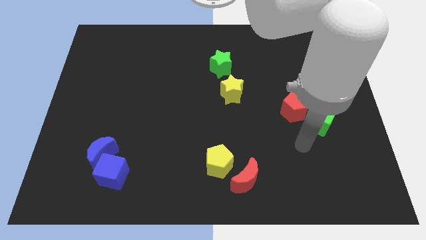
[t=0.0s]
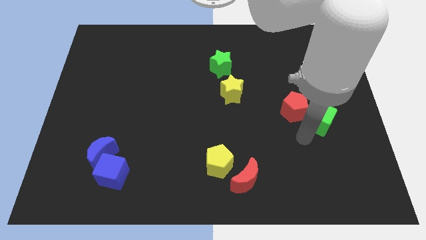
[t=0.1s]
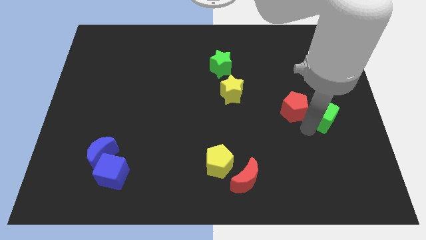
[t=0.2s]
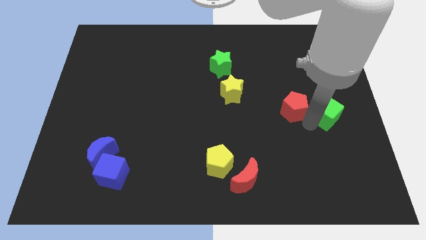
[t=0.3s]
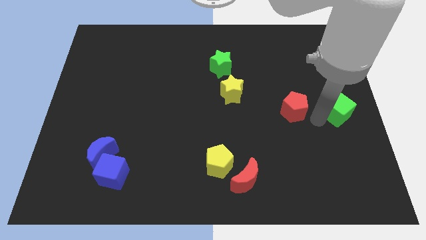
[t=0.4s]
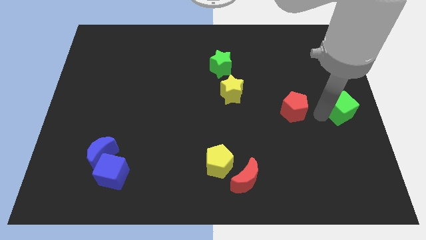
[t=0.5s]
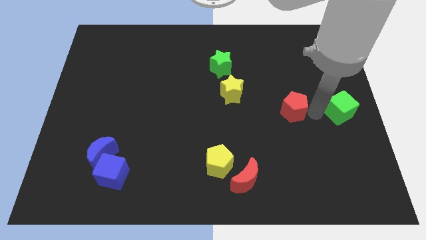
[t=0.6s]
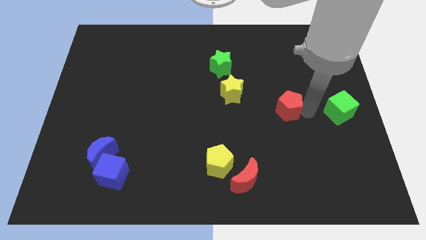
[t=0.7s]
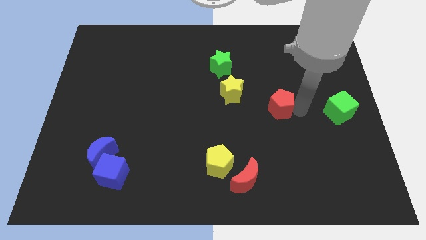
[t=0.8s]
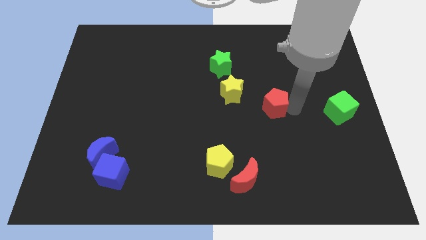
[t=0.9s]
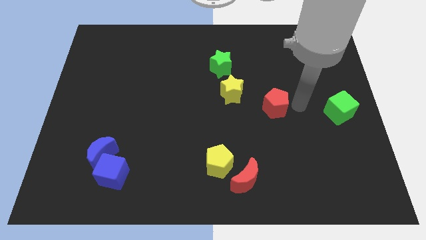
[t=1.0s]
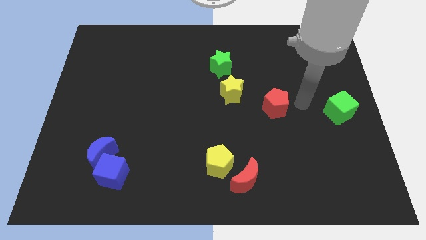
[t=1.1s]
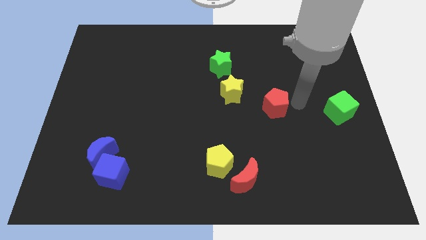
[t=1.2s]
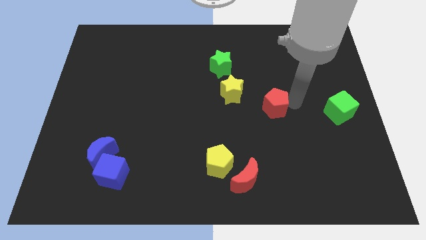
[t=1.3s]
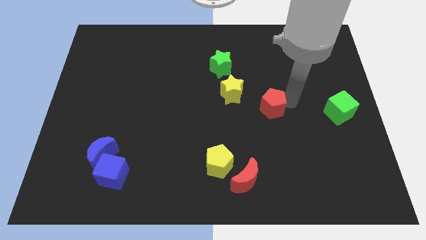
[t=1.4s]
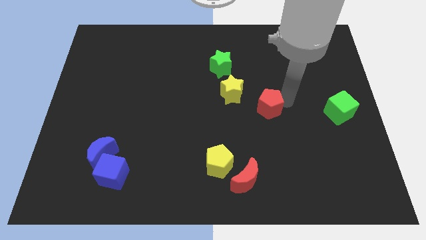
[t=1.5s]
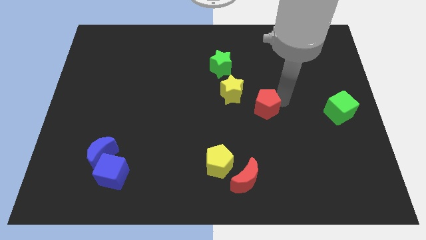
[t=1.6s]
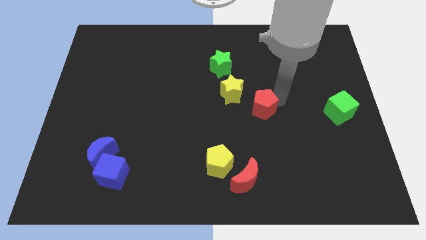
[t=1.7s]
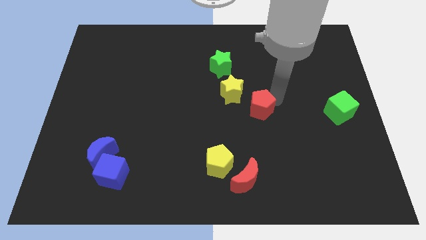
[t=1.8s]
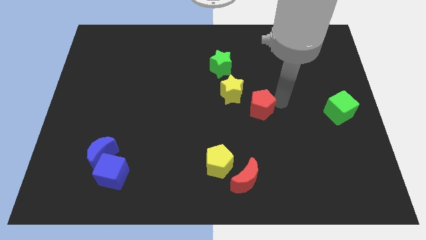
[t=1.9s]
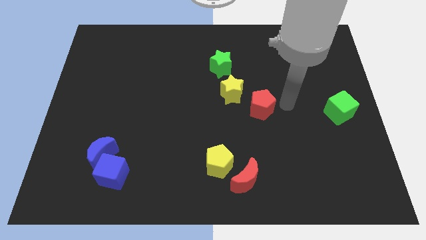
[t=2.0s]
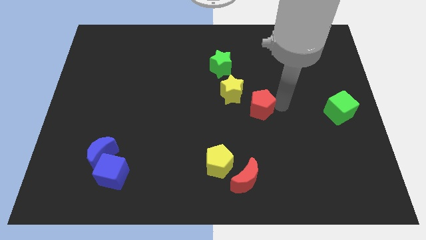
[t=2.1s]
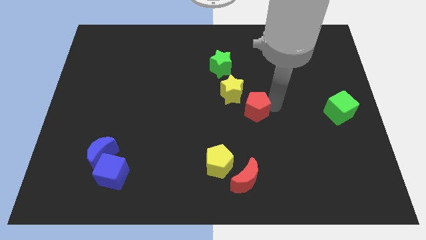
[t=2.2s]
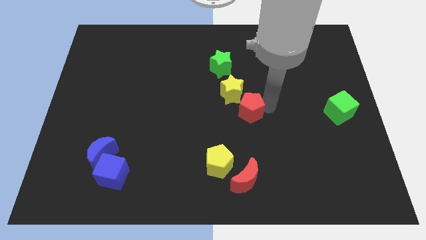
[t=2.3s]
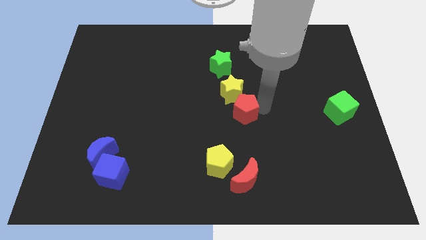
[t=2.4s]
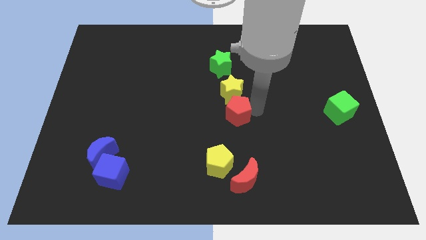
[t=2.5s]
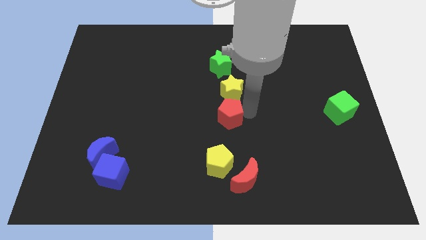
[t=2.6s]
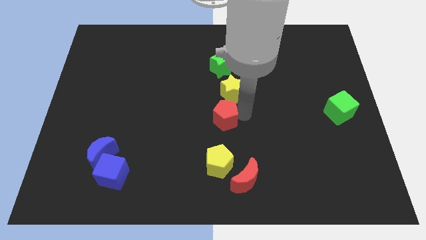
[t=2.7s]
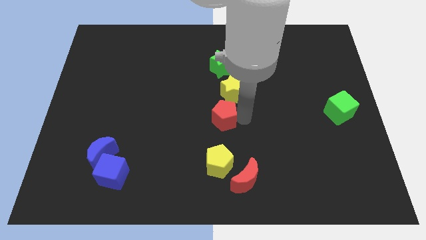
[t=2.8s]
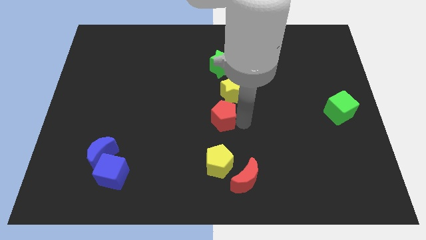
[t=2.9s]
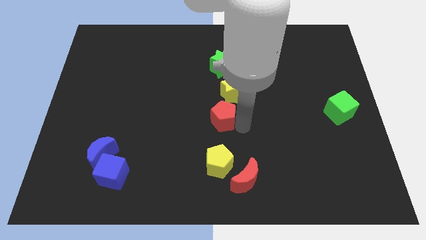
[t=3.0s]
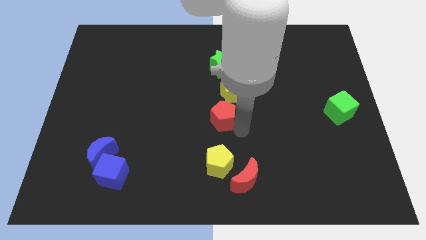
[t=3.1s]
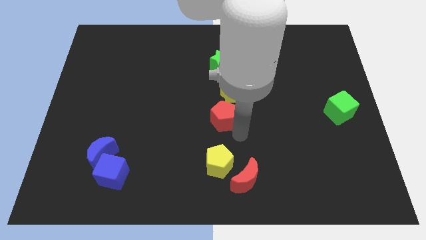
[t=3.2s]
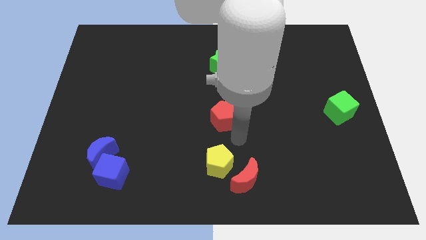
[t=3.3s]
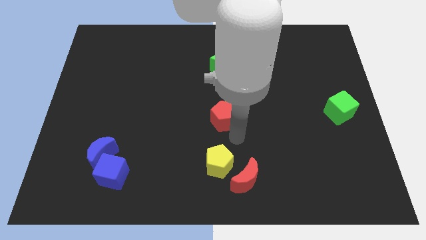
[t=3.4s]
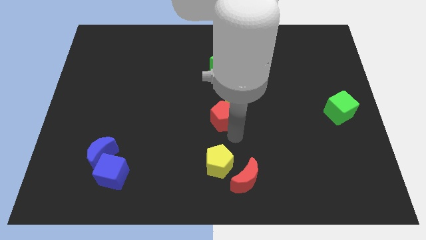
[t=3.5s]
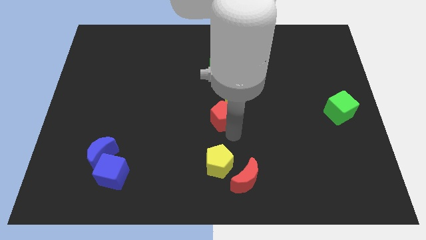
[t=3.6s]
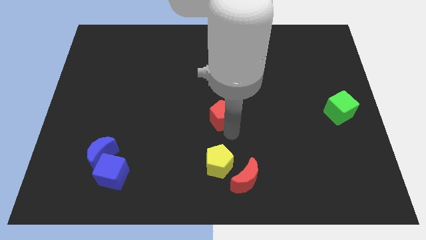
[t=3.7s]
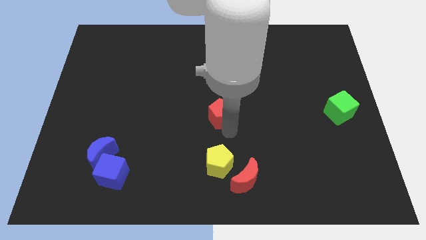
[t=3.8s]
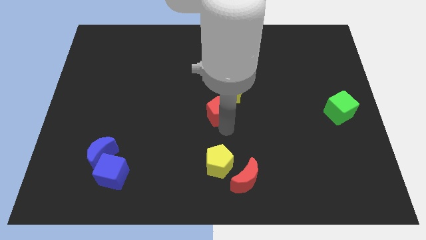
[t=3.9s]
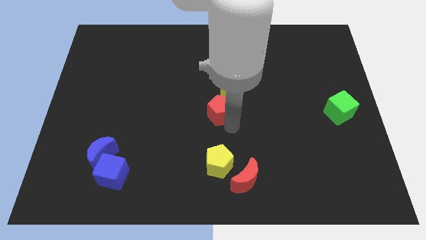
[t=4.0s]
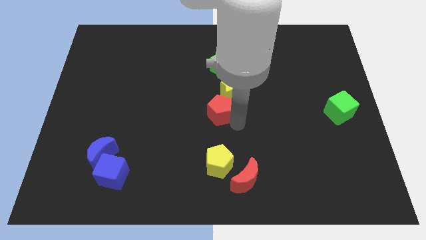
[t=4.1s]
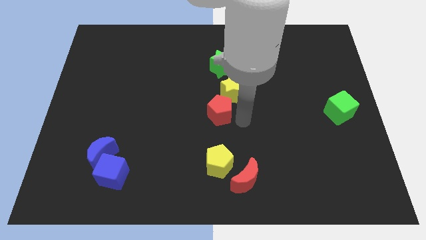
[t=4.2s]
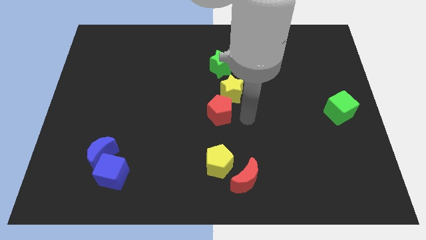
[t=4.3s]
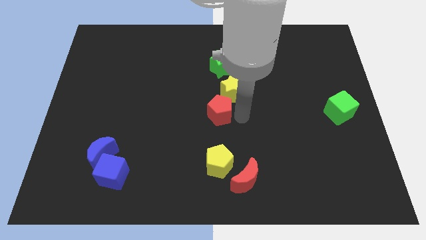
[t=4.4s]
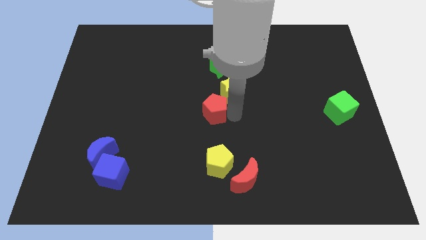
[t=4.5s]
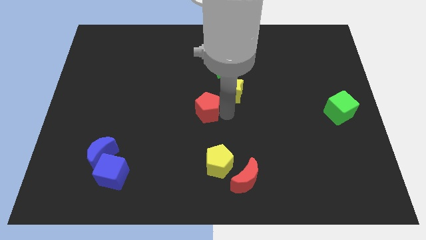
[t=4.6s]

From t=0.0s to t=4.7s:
move the red pentagon left

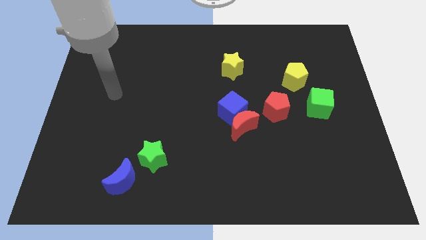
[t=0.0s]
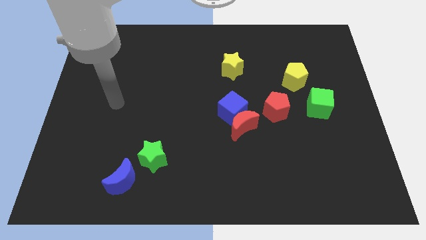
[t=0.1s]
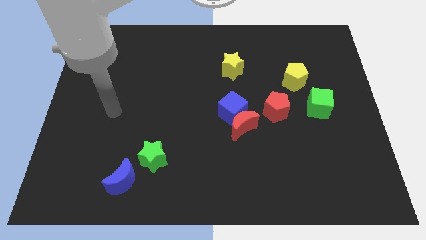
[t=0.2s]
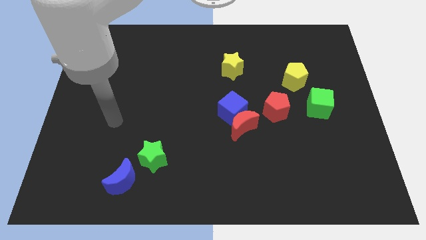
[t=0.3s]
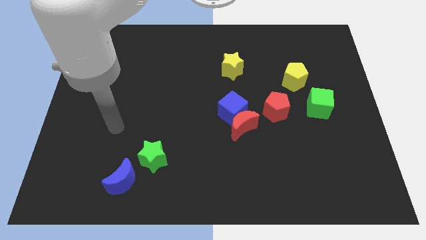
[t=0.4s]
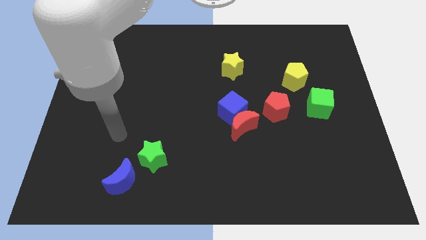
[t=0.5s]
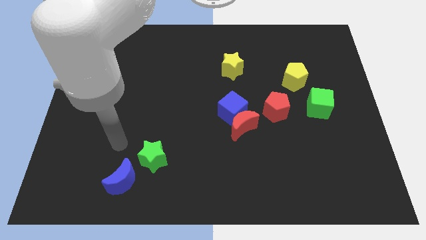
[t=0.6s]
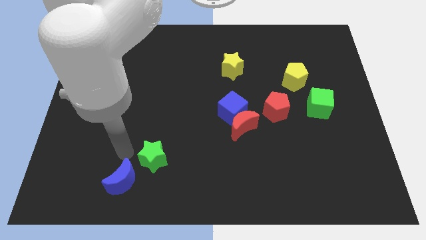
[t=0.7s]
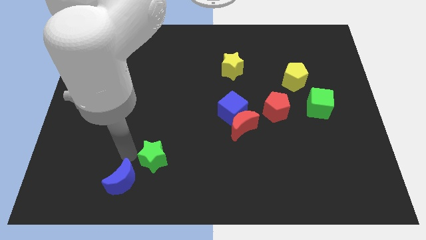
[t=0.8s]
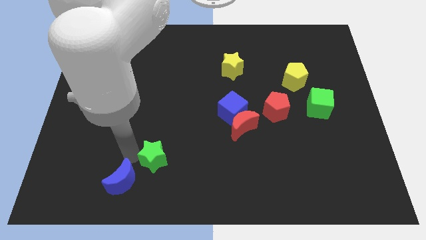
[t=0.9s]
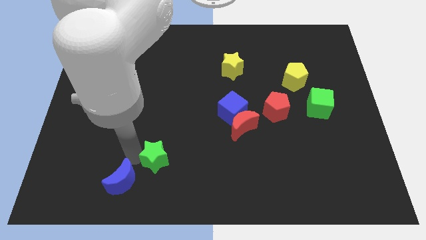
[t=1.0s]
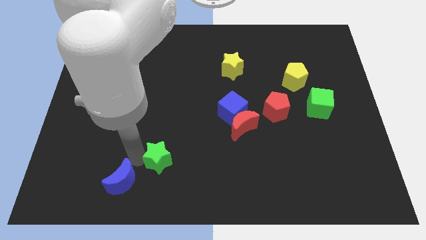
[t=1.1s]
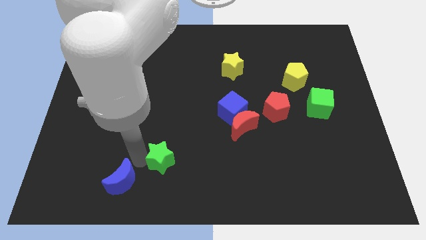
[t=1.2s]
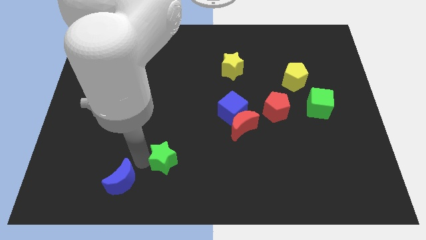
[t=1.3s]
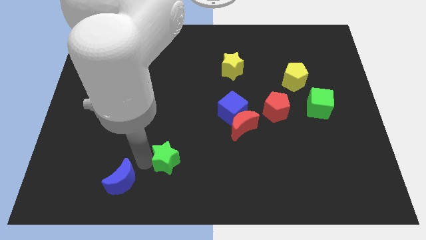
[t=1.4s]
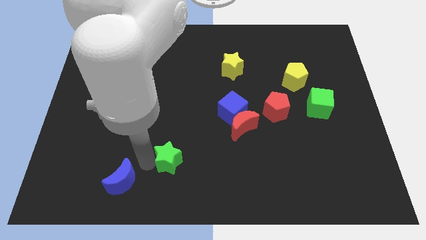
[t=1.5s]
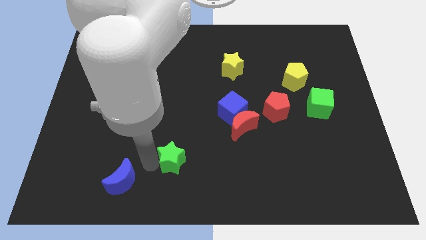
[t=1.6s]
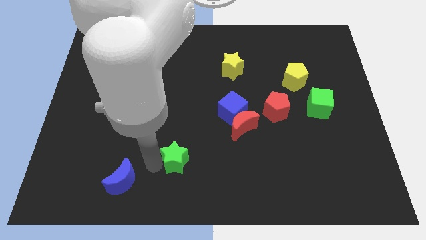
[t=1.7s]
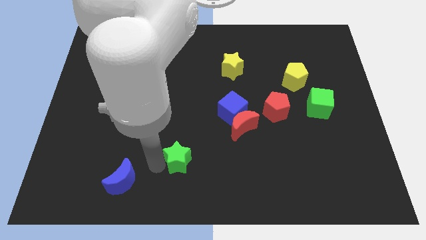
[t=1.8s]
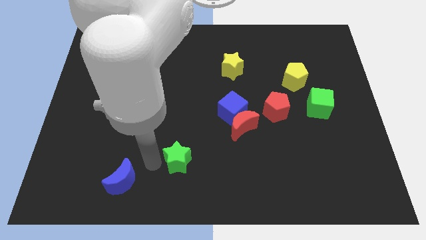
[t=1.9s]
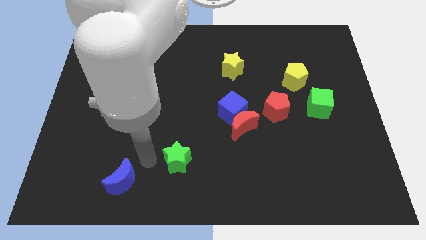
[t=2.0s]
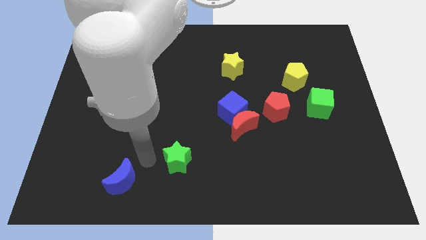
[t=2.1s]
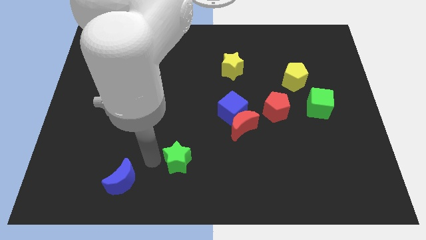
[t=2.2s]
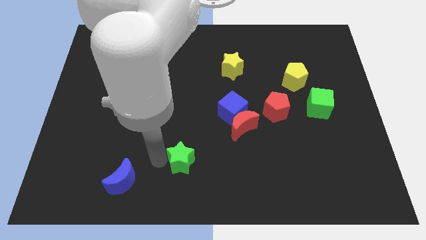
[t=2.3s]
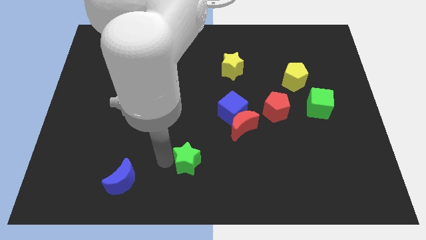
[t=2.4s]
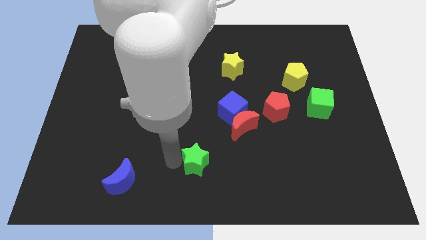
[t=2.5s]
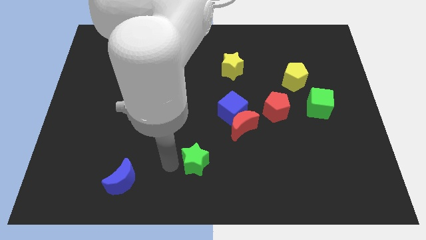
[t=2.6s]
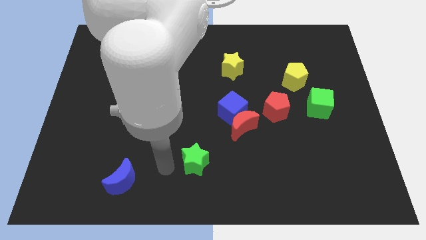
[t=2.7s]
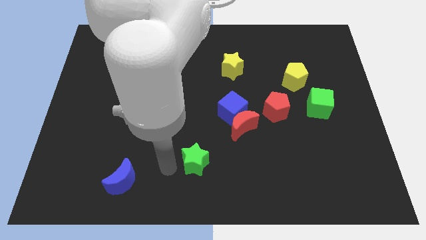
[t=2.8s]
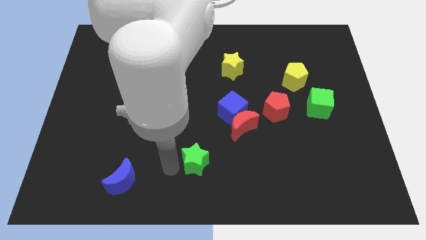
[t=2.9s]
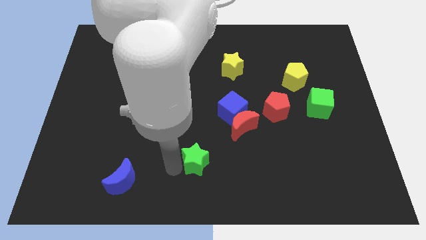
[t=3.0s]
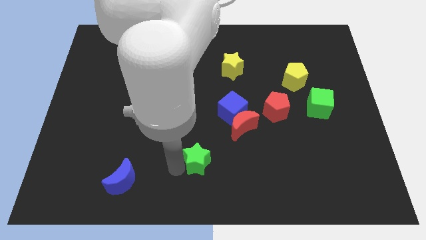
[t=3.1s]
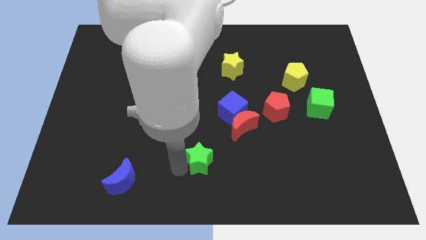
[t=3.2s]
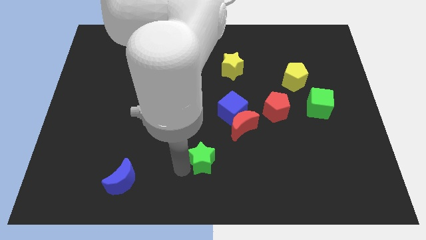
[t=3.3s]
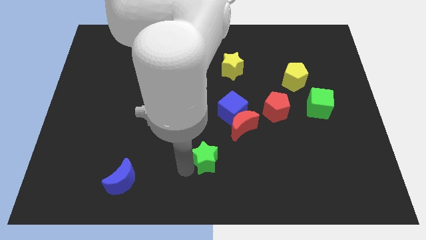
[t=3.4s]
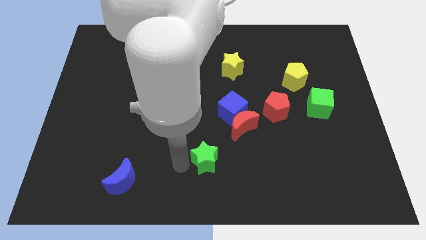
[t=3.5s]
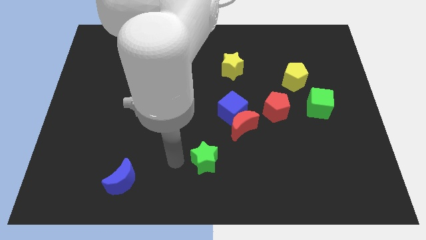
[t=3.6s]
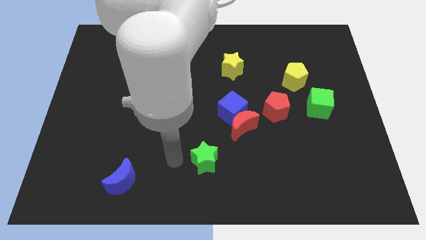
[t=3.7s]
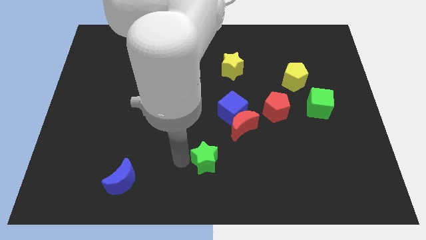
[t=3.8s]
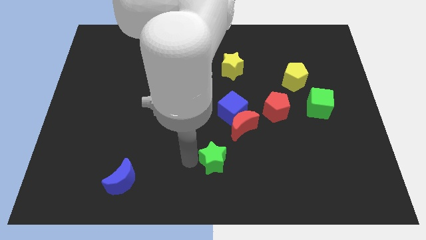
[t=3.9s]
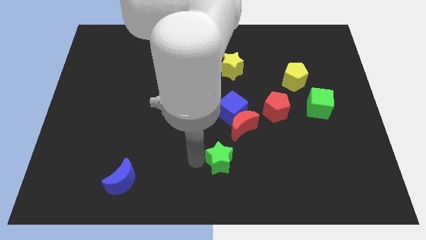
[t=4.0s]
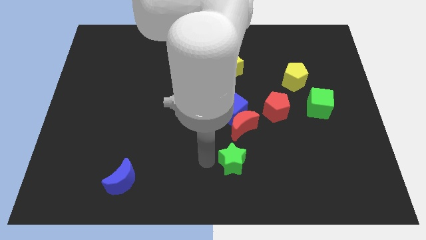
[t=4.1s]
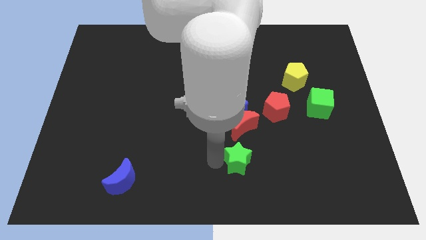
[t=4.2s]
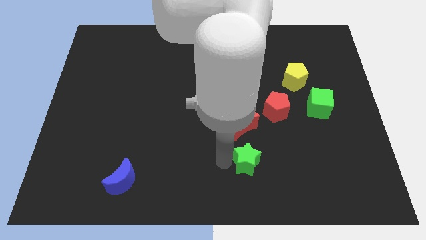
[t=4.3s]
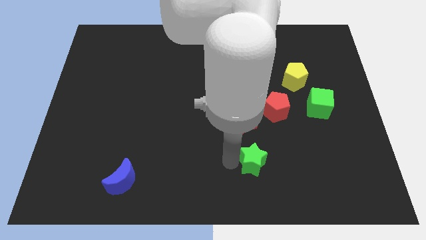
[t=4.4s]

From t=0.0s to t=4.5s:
push the green star to the right
